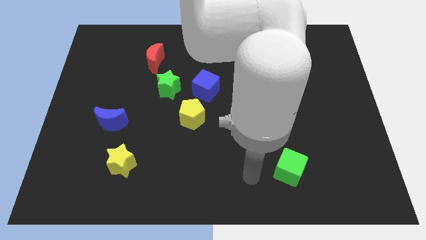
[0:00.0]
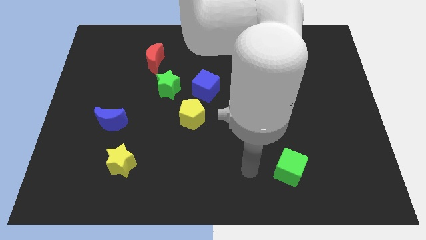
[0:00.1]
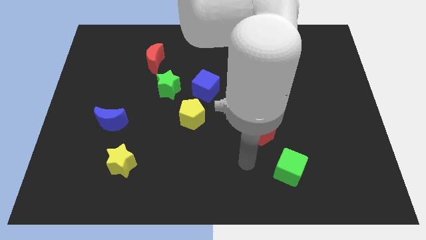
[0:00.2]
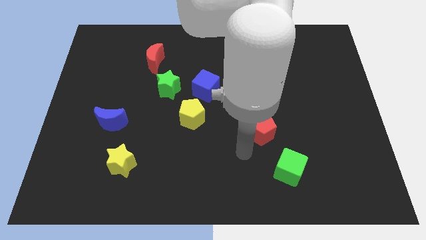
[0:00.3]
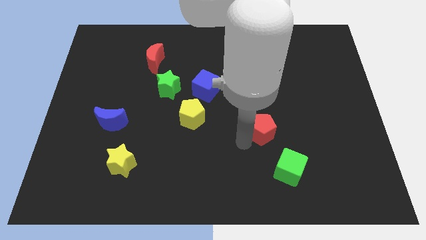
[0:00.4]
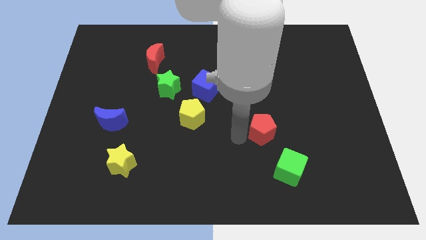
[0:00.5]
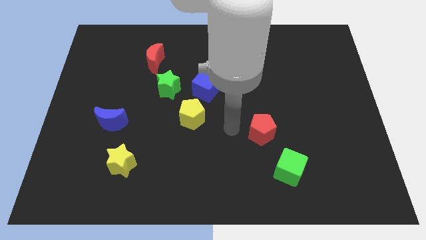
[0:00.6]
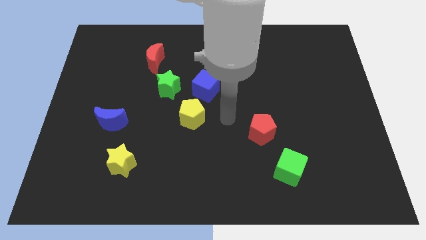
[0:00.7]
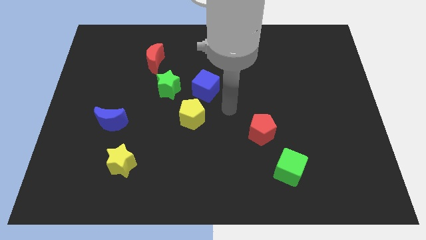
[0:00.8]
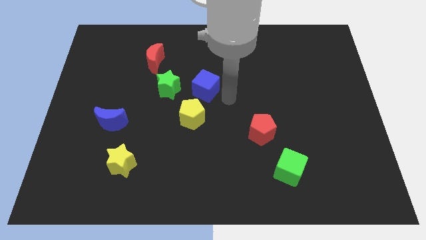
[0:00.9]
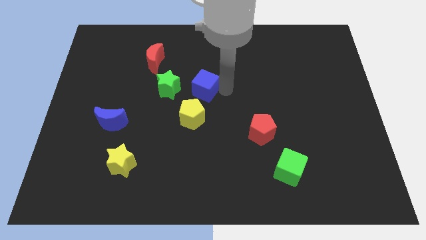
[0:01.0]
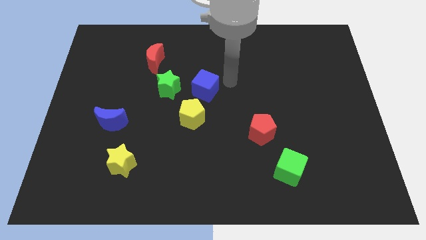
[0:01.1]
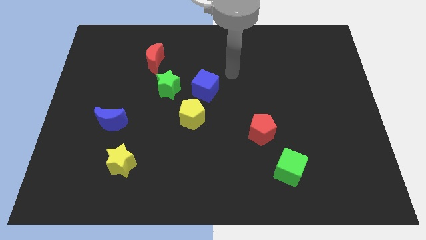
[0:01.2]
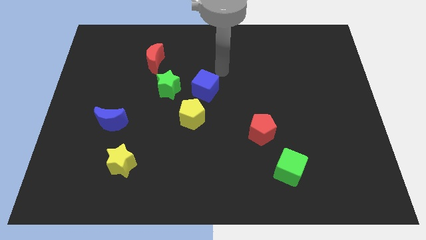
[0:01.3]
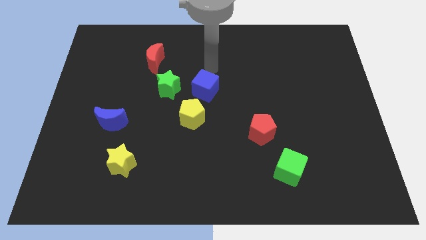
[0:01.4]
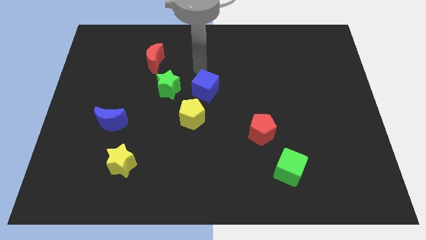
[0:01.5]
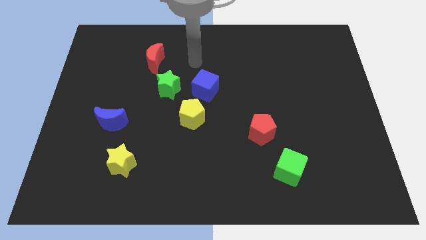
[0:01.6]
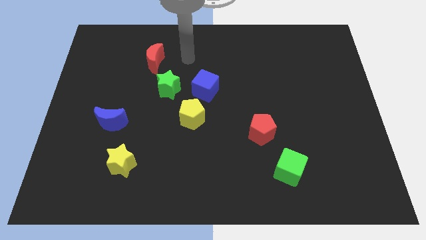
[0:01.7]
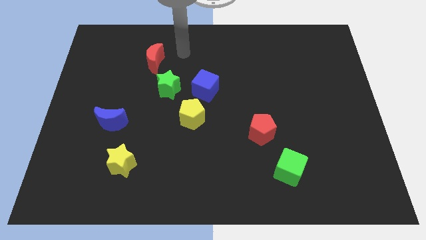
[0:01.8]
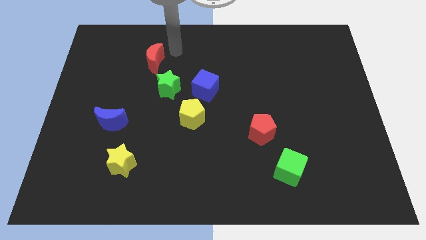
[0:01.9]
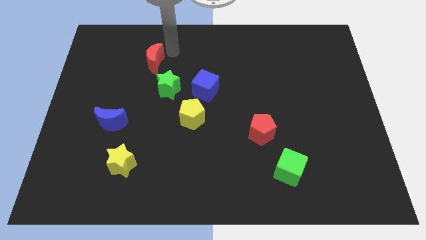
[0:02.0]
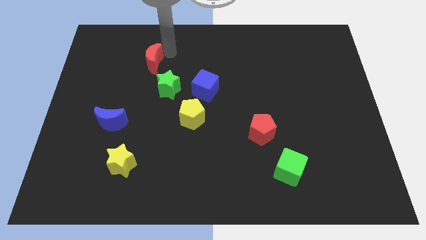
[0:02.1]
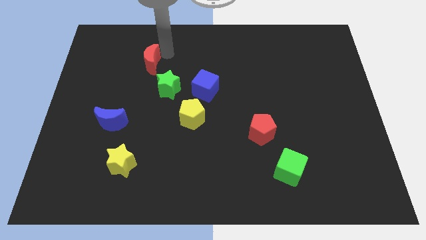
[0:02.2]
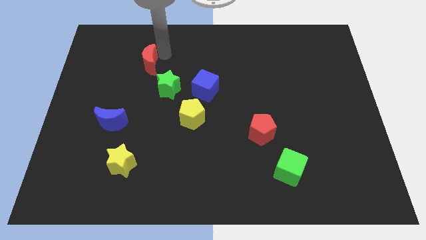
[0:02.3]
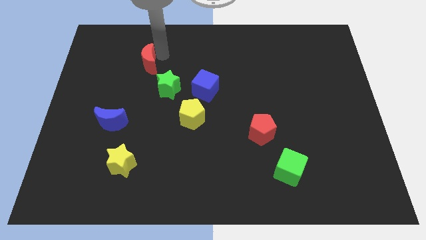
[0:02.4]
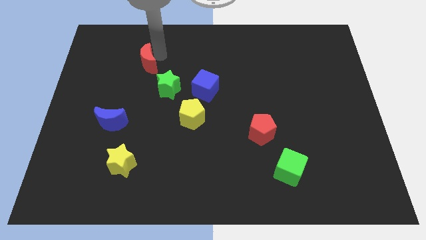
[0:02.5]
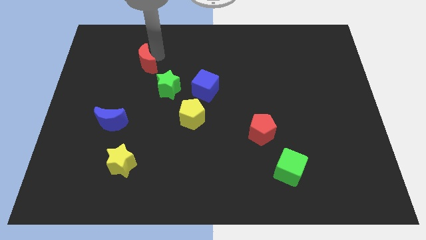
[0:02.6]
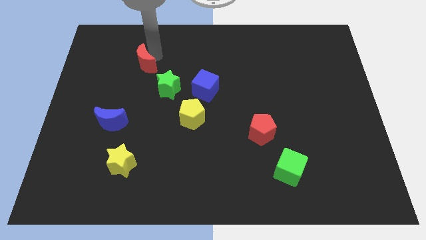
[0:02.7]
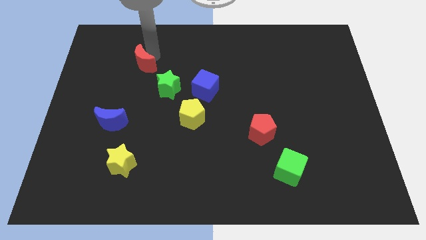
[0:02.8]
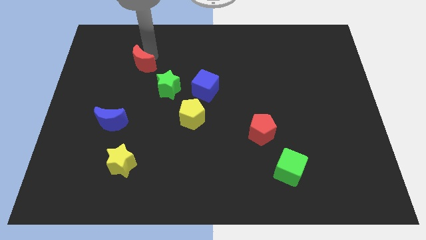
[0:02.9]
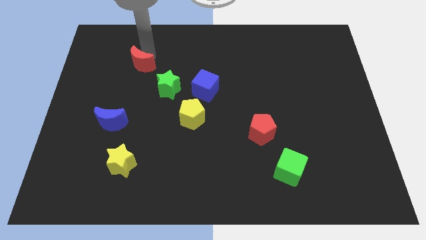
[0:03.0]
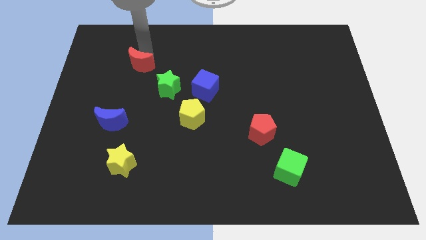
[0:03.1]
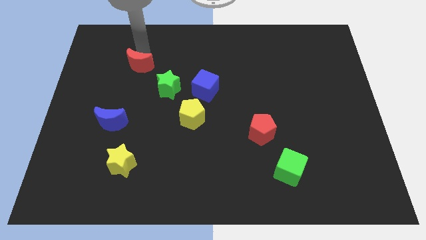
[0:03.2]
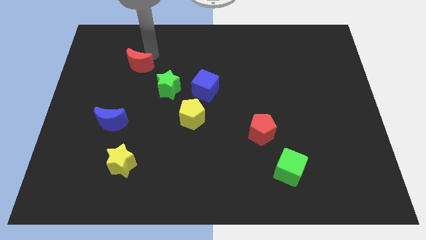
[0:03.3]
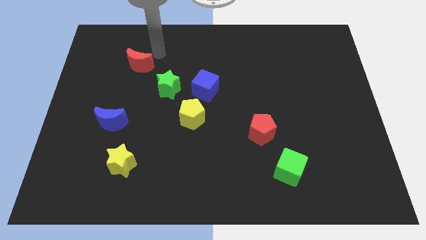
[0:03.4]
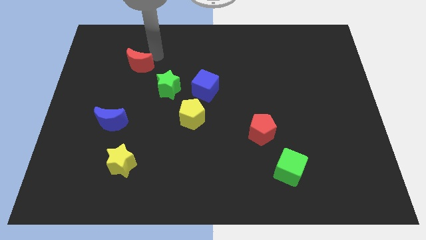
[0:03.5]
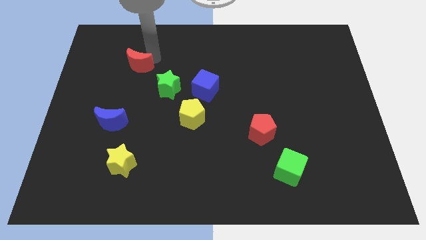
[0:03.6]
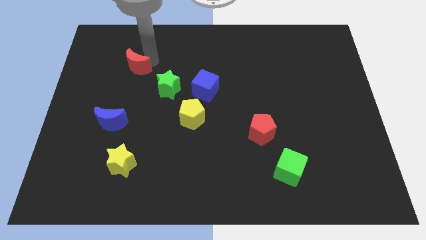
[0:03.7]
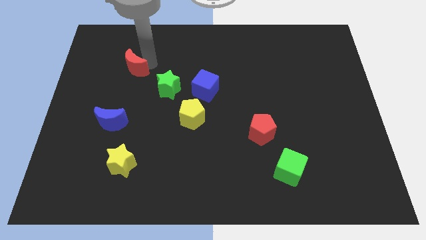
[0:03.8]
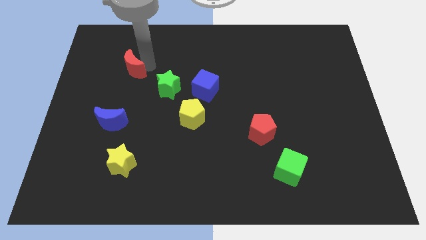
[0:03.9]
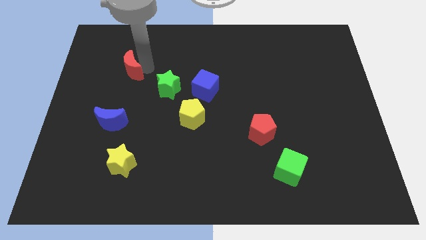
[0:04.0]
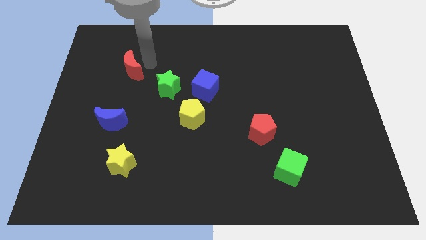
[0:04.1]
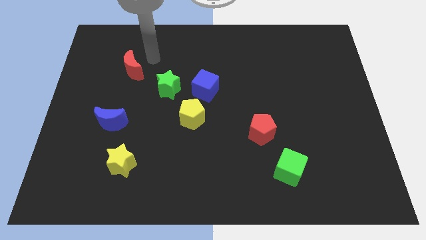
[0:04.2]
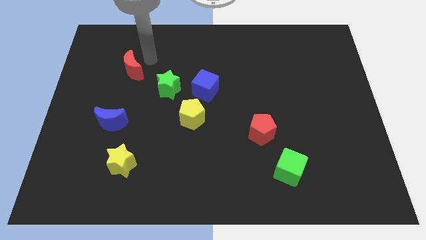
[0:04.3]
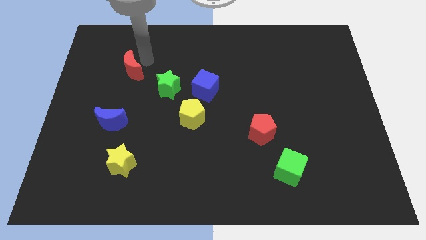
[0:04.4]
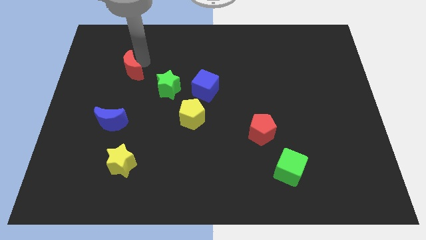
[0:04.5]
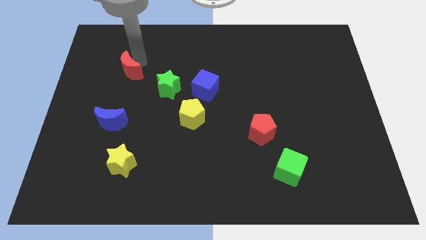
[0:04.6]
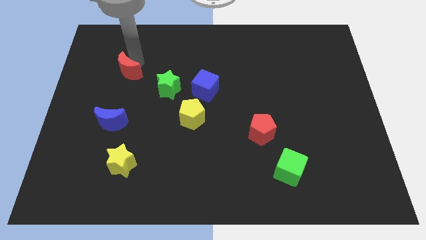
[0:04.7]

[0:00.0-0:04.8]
slightly push the red moon downwards and to the left diagonally

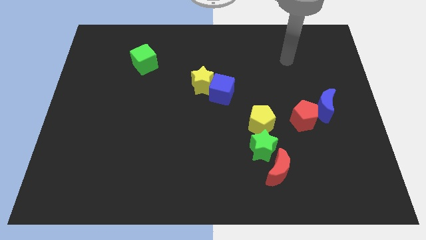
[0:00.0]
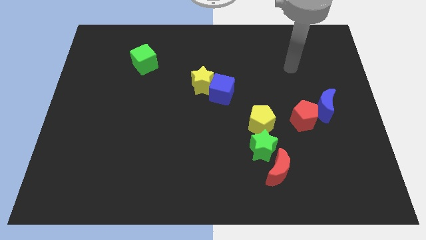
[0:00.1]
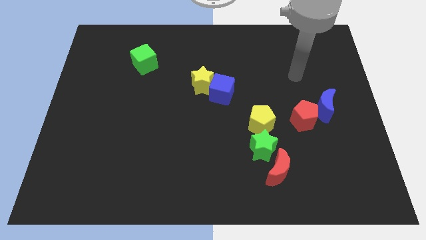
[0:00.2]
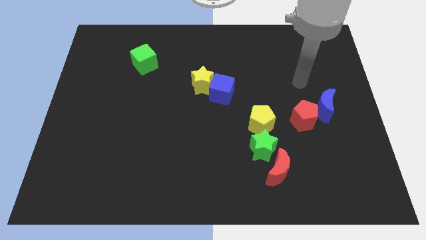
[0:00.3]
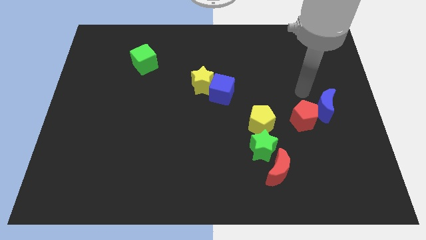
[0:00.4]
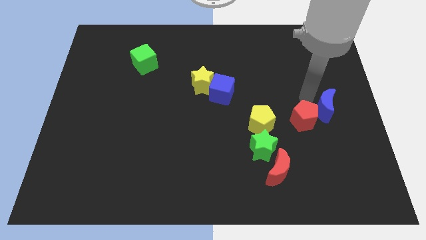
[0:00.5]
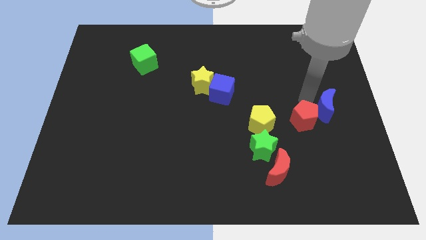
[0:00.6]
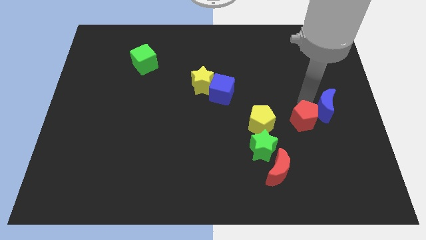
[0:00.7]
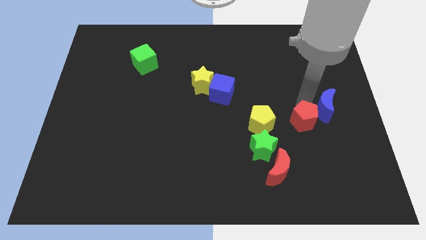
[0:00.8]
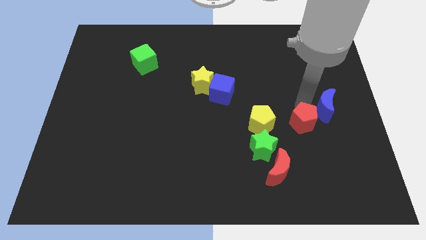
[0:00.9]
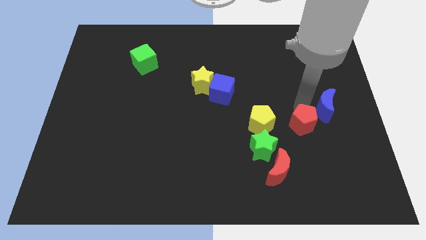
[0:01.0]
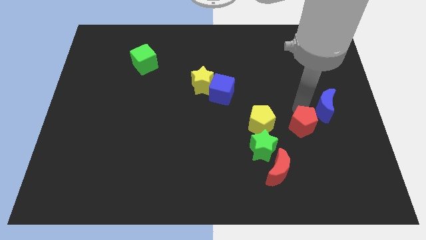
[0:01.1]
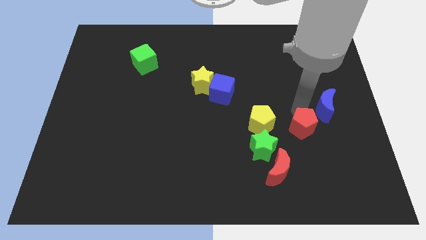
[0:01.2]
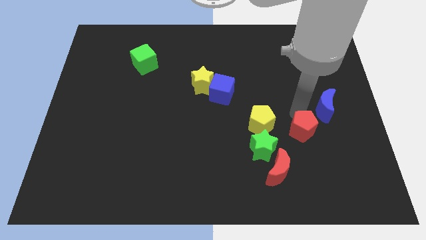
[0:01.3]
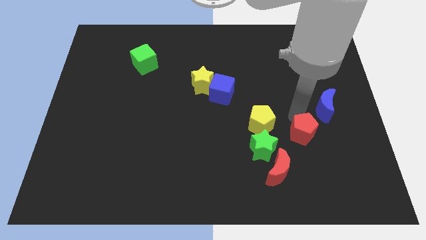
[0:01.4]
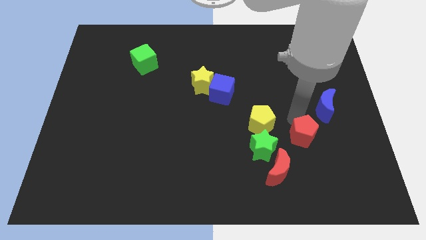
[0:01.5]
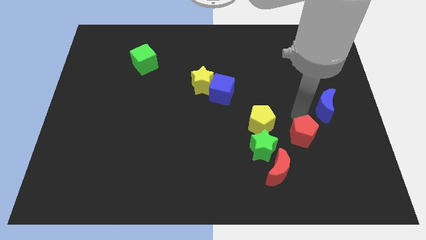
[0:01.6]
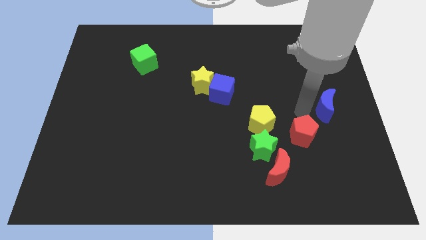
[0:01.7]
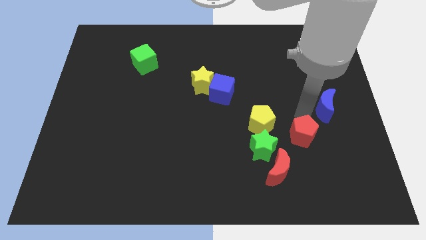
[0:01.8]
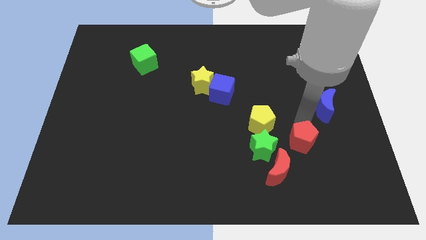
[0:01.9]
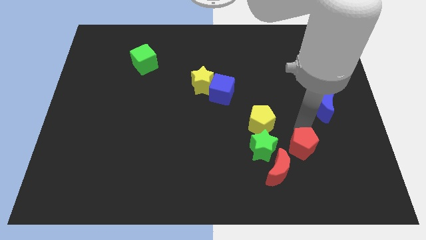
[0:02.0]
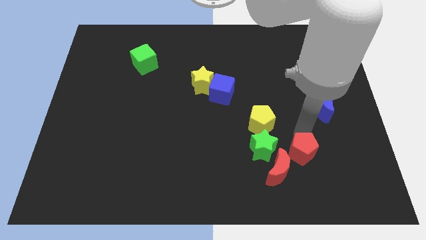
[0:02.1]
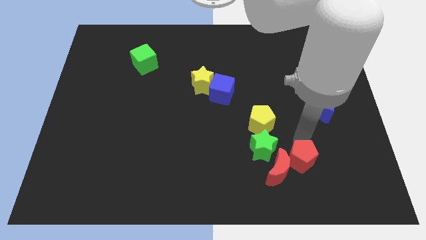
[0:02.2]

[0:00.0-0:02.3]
push the red pentagon a little bit diagonally downwards and to the left

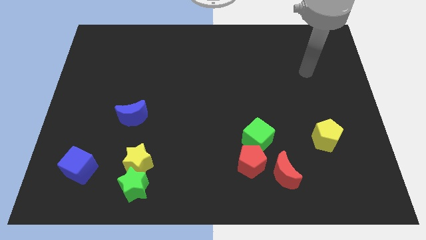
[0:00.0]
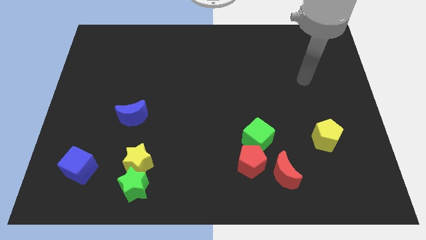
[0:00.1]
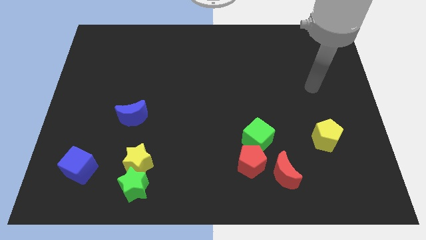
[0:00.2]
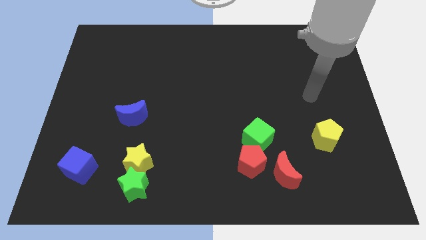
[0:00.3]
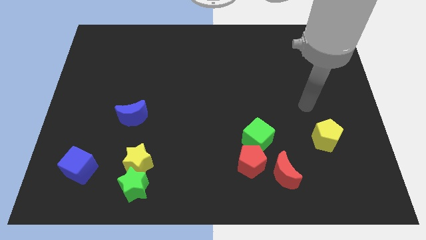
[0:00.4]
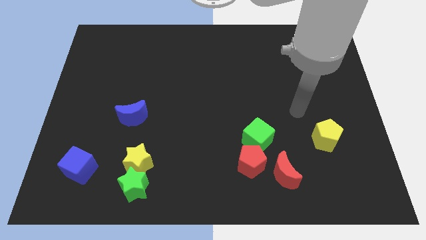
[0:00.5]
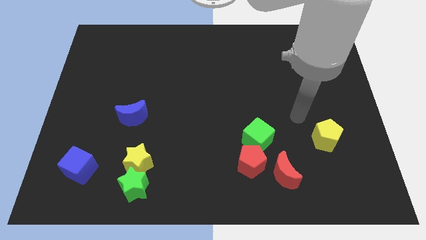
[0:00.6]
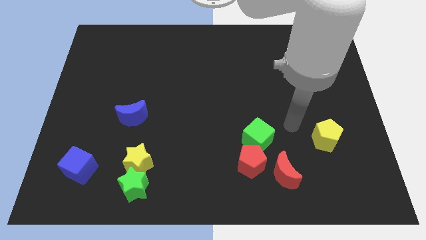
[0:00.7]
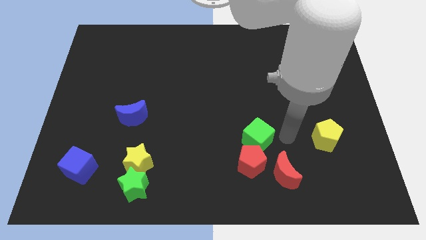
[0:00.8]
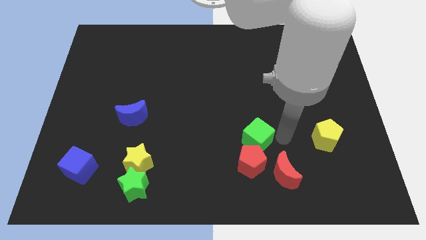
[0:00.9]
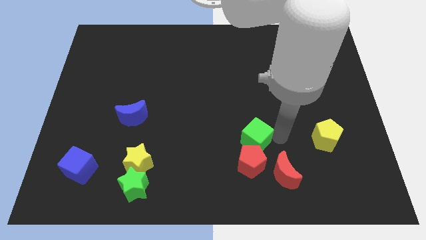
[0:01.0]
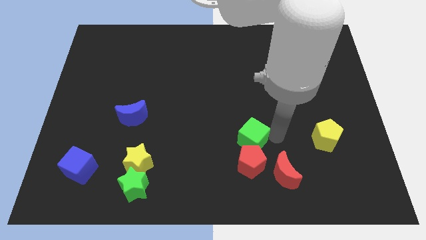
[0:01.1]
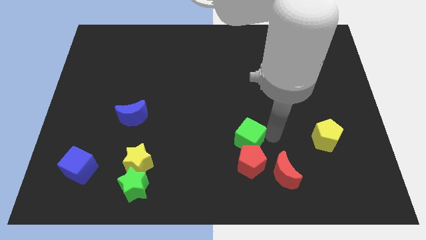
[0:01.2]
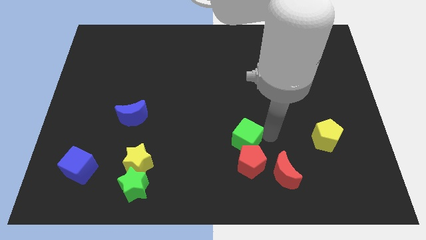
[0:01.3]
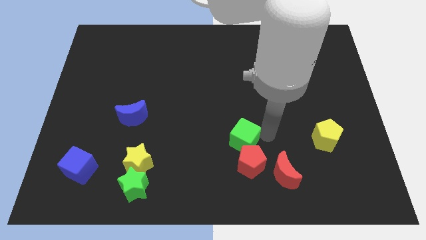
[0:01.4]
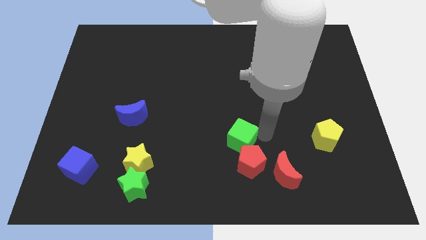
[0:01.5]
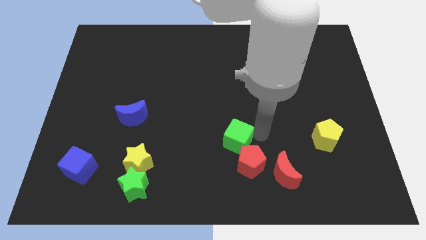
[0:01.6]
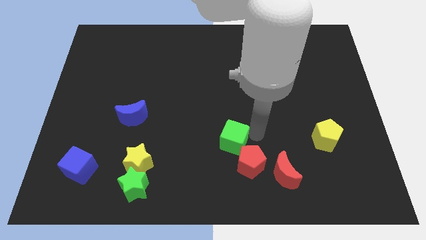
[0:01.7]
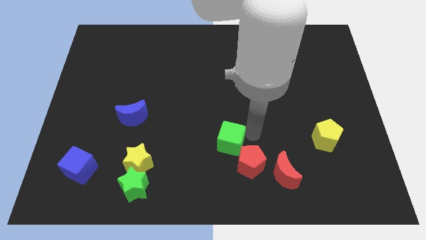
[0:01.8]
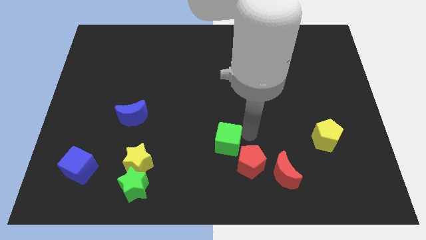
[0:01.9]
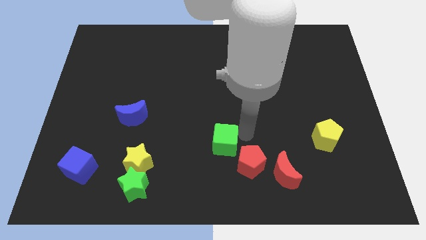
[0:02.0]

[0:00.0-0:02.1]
slide the green cube slightly to the left
